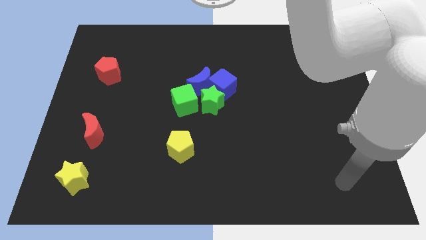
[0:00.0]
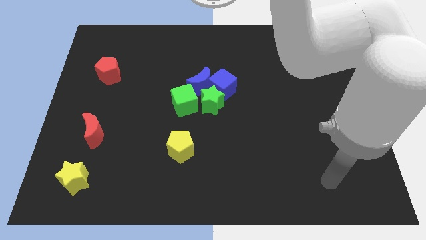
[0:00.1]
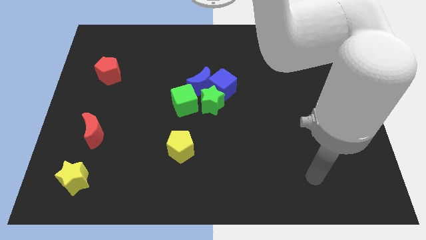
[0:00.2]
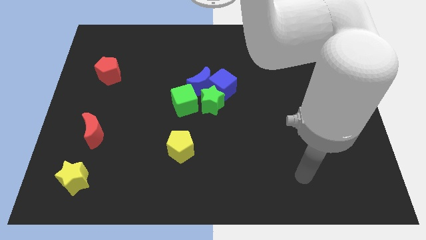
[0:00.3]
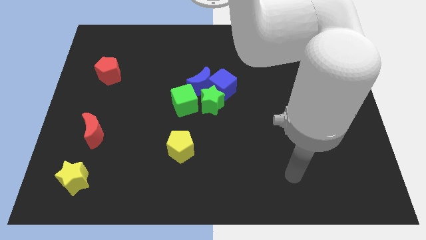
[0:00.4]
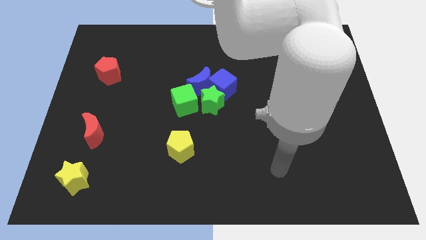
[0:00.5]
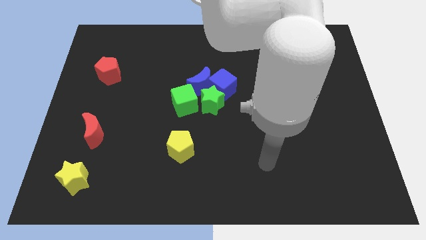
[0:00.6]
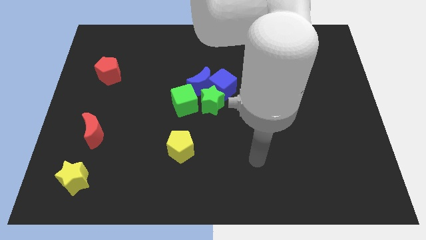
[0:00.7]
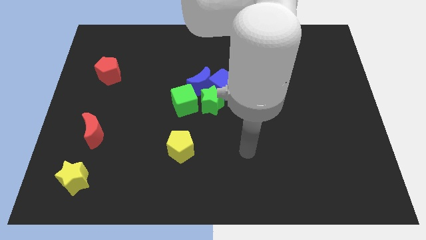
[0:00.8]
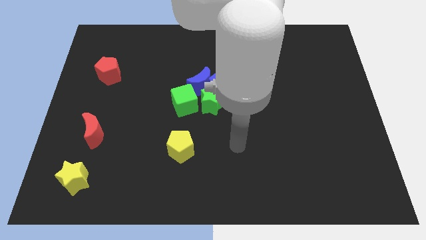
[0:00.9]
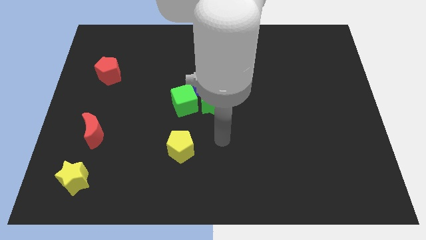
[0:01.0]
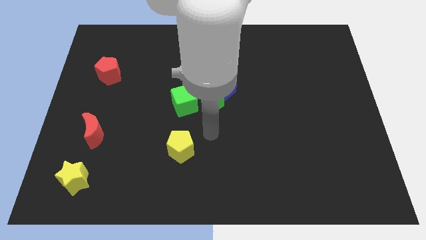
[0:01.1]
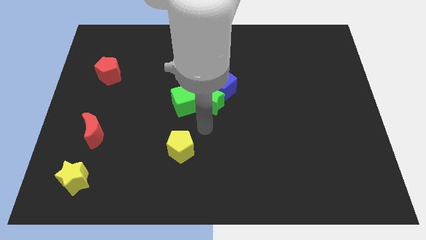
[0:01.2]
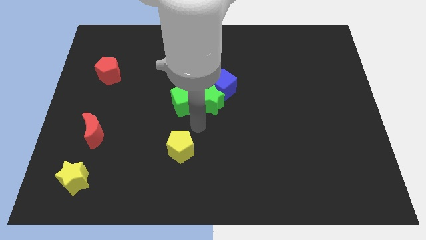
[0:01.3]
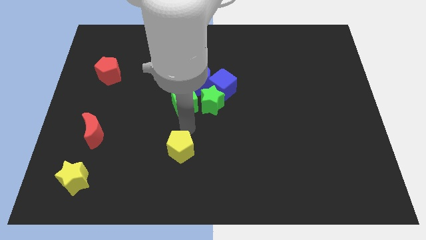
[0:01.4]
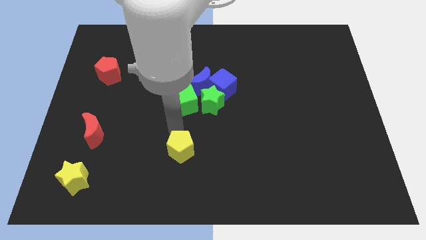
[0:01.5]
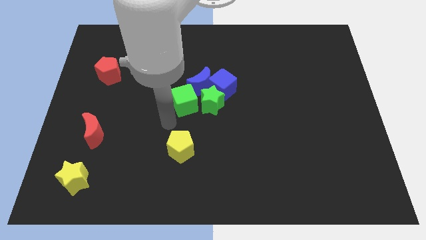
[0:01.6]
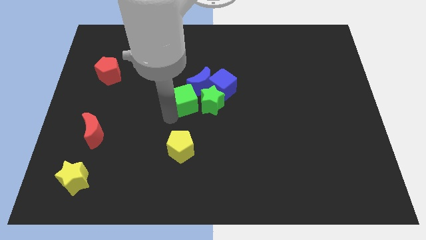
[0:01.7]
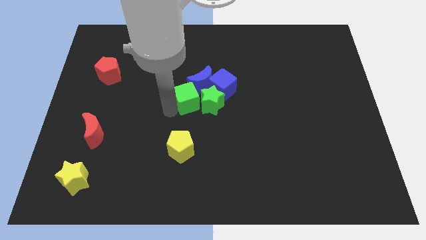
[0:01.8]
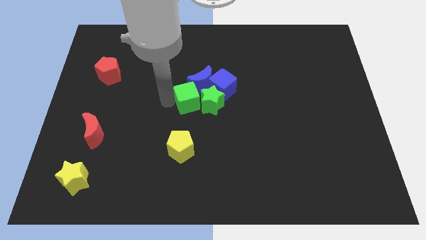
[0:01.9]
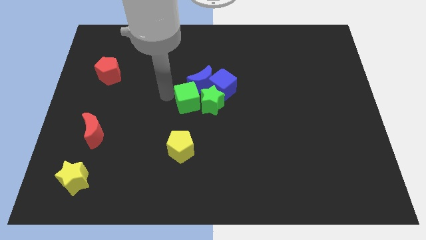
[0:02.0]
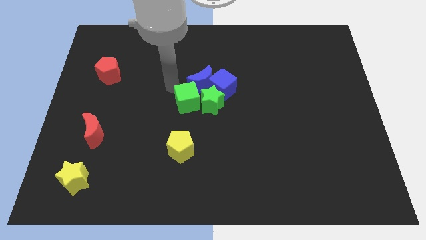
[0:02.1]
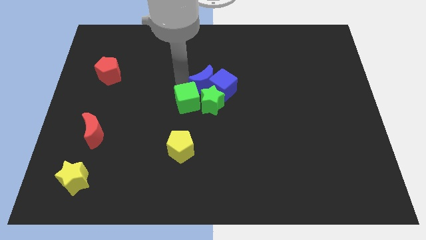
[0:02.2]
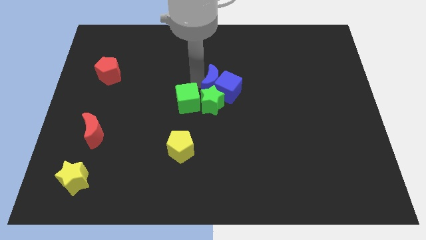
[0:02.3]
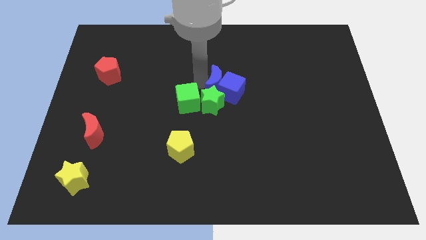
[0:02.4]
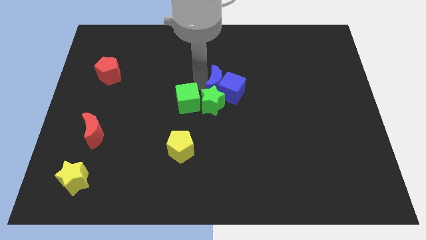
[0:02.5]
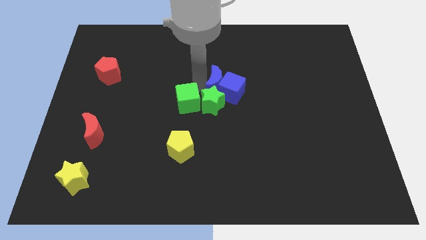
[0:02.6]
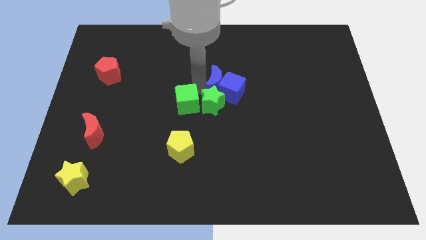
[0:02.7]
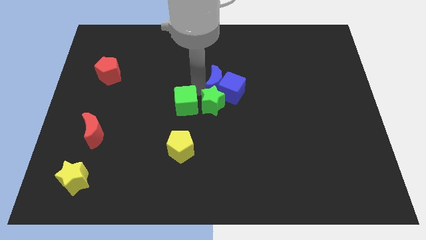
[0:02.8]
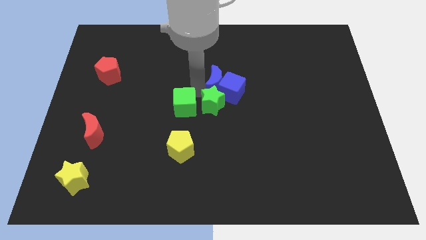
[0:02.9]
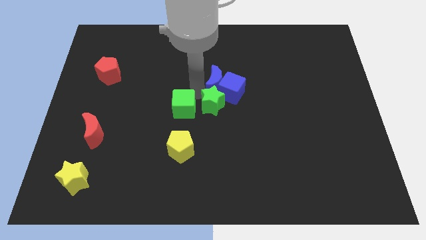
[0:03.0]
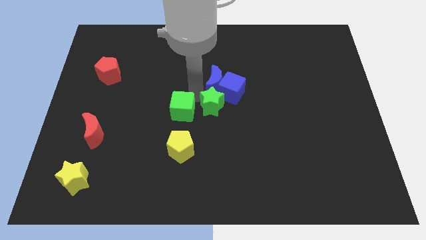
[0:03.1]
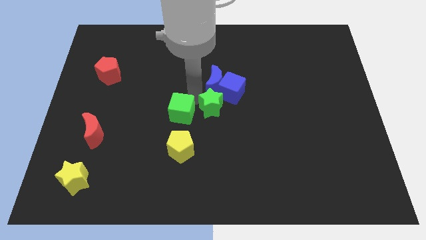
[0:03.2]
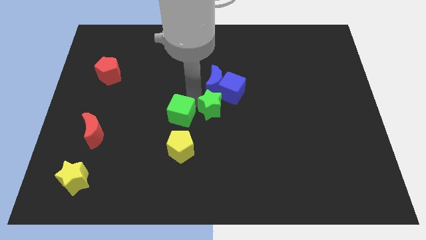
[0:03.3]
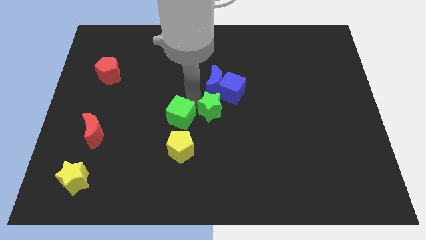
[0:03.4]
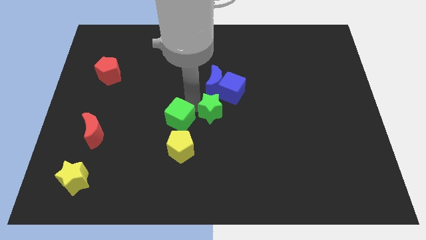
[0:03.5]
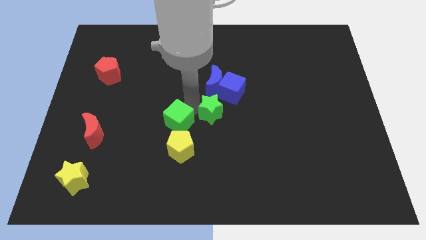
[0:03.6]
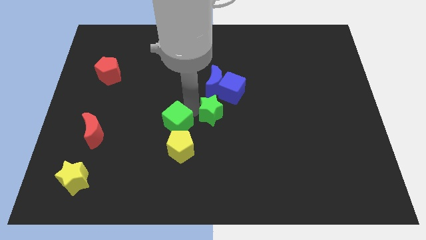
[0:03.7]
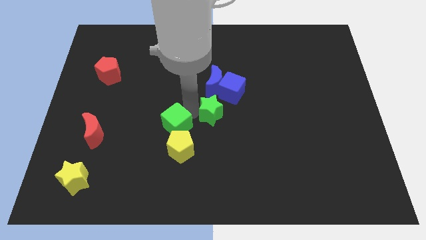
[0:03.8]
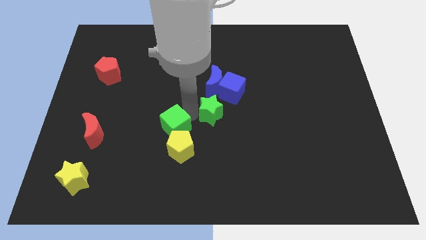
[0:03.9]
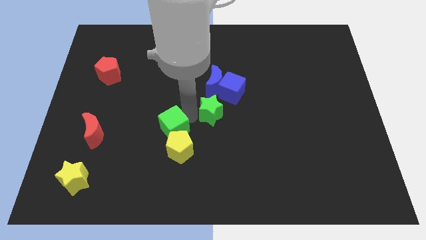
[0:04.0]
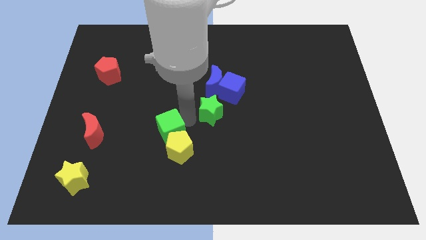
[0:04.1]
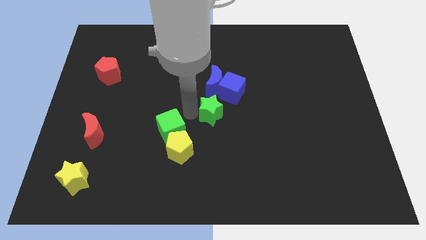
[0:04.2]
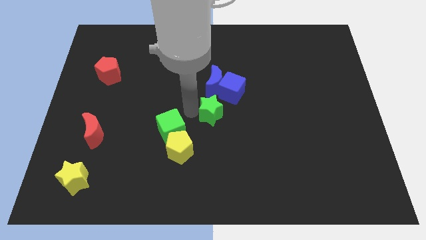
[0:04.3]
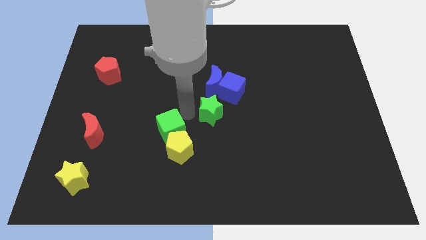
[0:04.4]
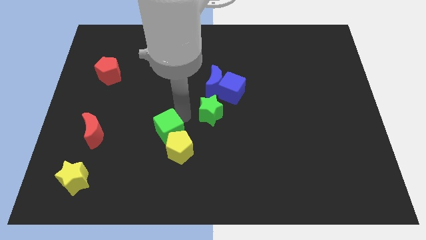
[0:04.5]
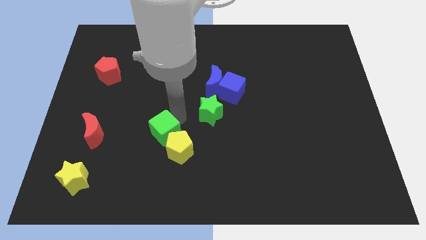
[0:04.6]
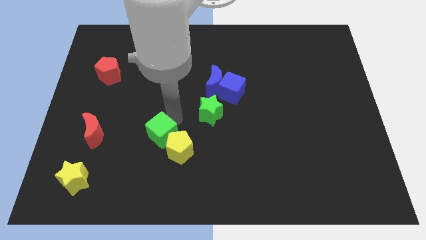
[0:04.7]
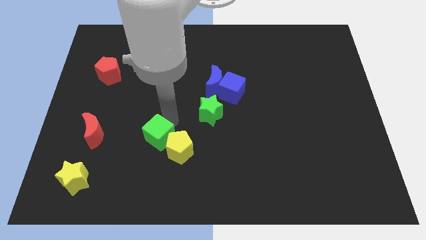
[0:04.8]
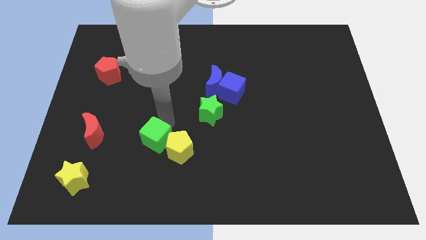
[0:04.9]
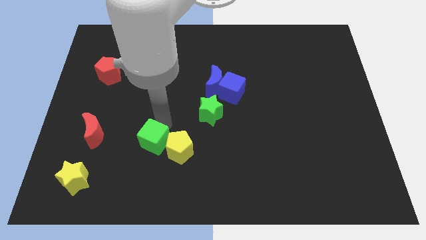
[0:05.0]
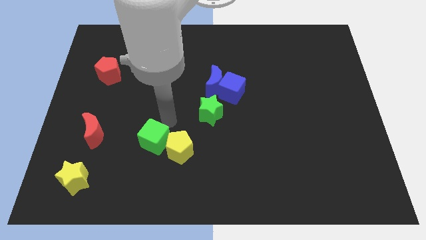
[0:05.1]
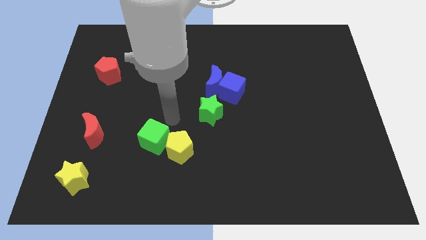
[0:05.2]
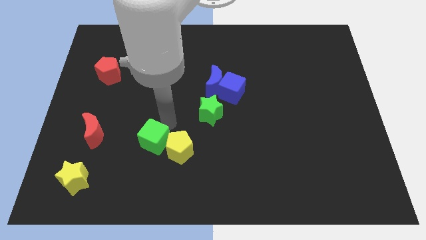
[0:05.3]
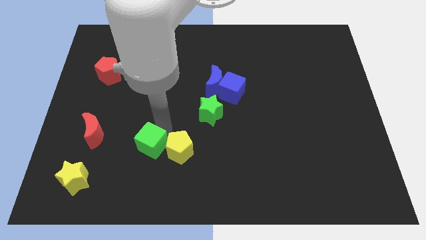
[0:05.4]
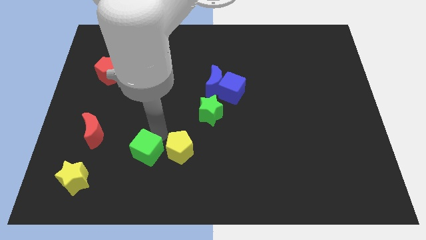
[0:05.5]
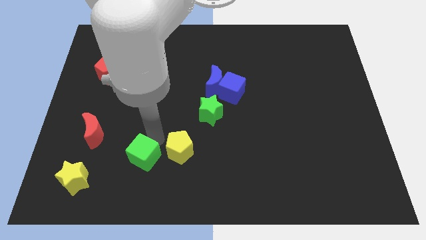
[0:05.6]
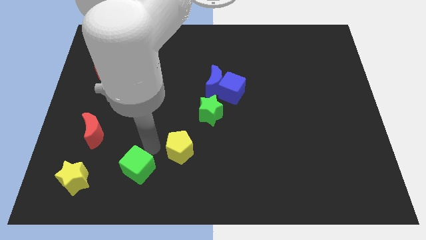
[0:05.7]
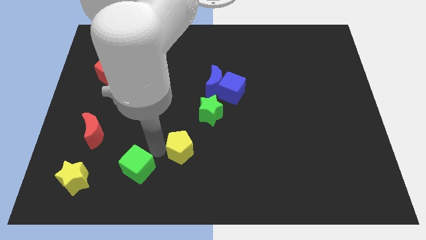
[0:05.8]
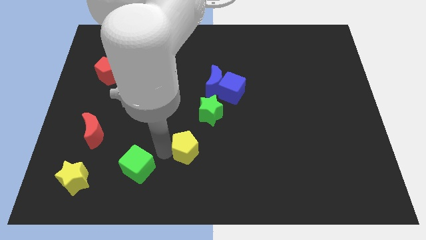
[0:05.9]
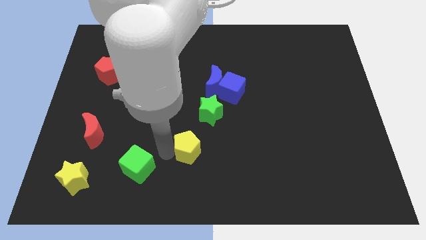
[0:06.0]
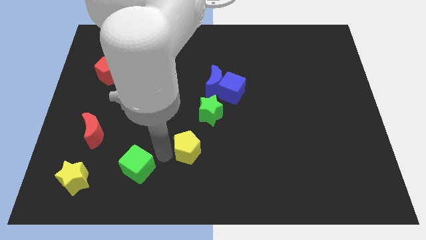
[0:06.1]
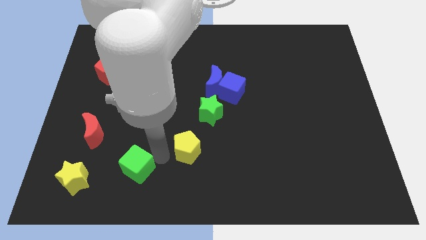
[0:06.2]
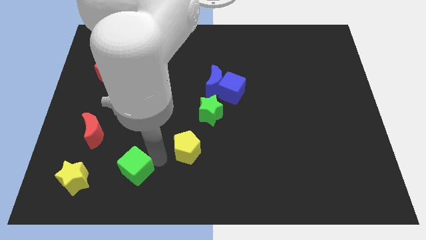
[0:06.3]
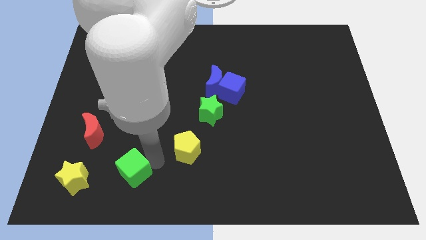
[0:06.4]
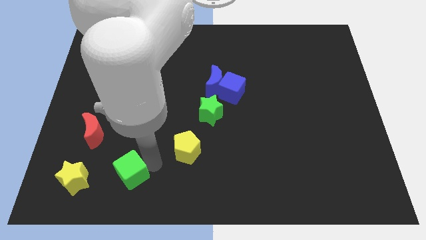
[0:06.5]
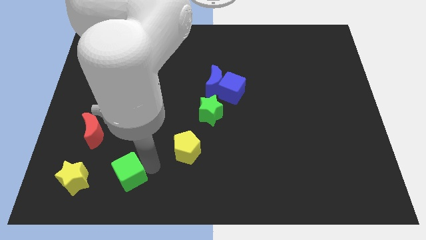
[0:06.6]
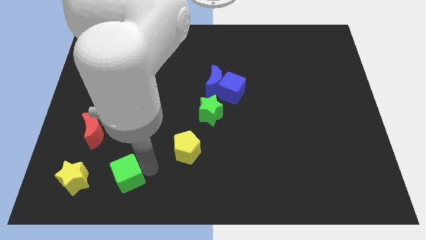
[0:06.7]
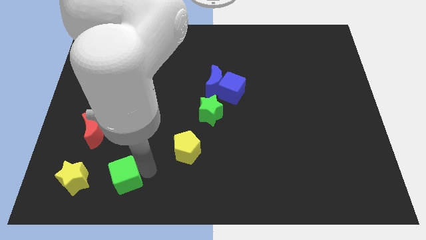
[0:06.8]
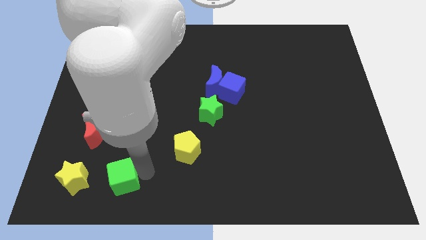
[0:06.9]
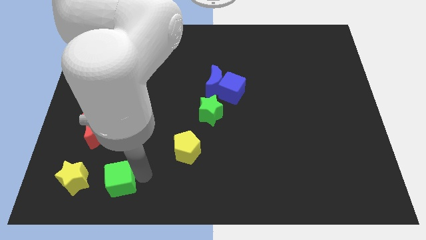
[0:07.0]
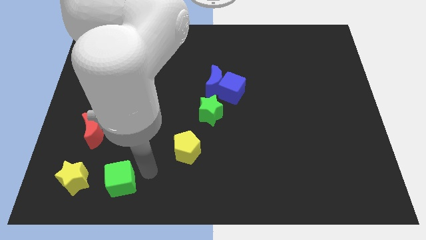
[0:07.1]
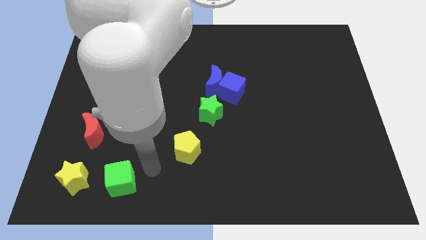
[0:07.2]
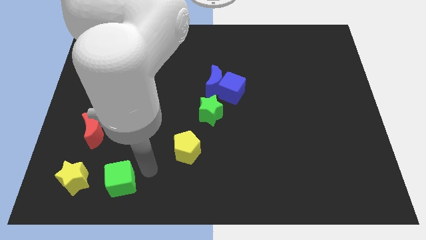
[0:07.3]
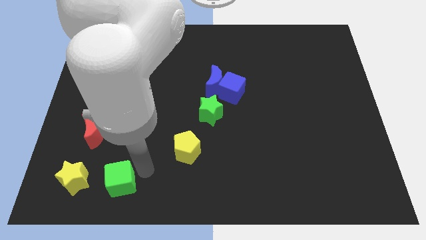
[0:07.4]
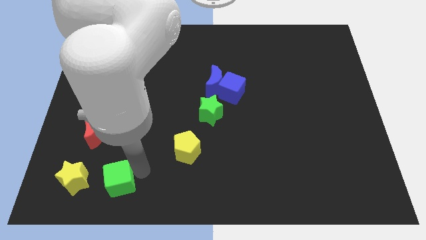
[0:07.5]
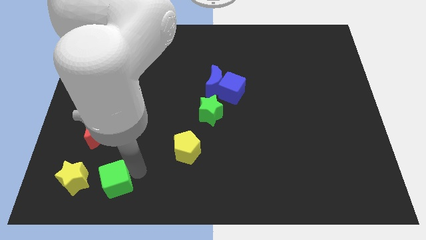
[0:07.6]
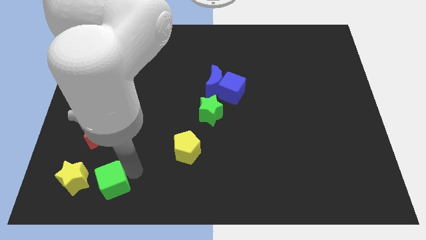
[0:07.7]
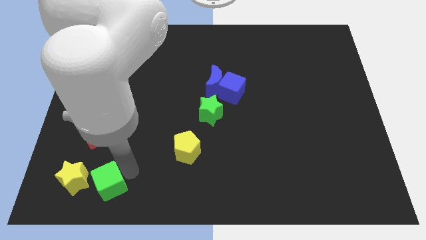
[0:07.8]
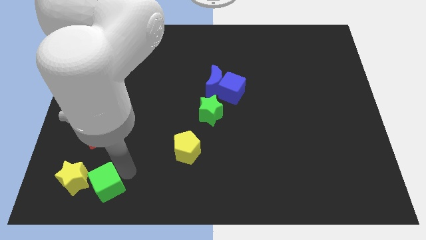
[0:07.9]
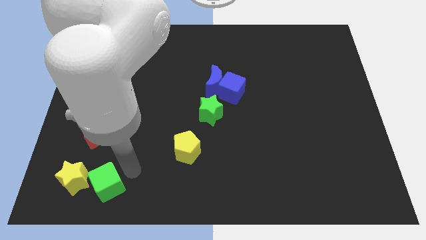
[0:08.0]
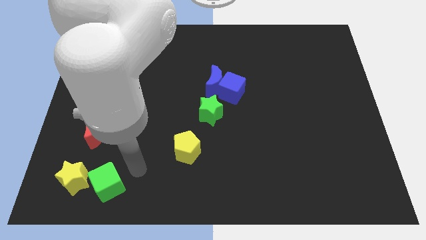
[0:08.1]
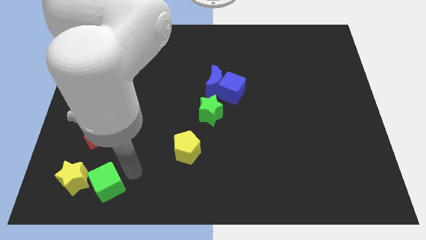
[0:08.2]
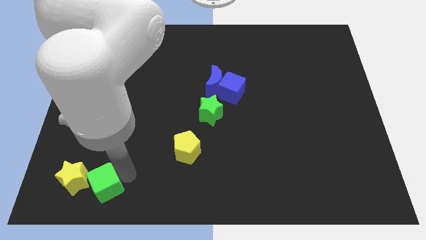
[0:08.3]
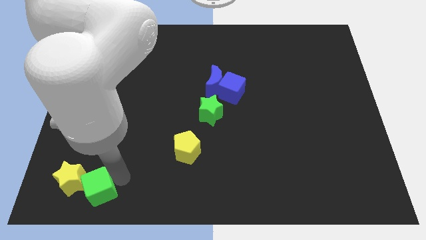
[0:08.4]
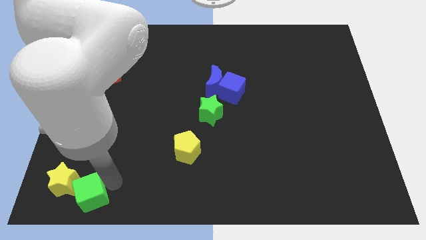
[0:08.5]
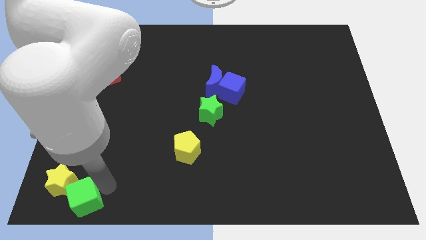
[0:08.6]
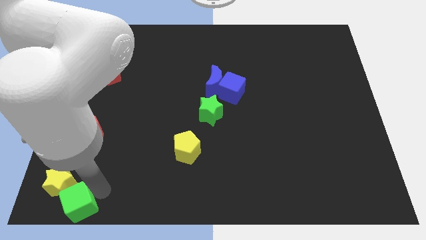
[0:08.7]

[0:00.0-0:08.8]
put the green cube to the bottom left
